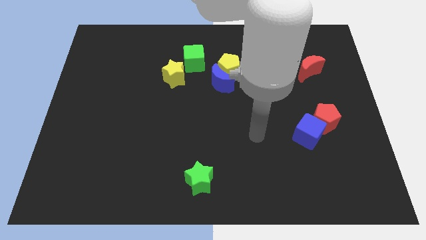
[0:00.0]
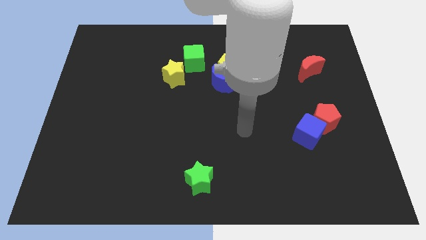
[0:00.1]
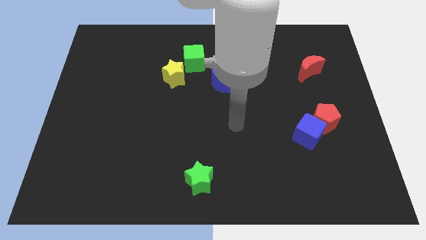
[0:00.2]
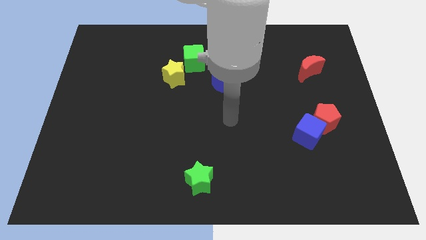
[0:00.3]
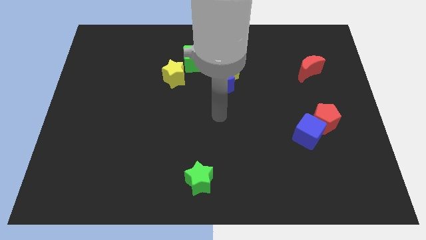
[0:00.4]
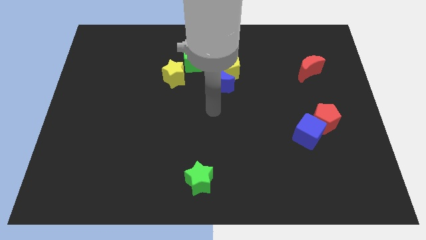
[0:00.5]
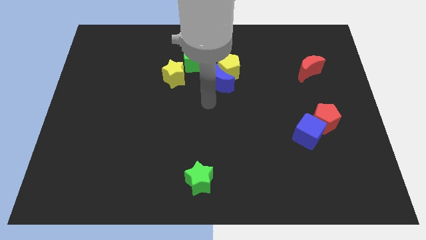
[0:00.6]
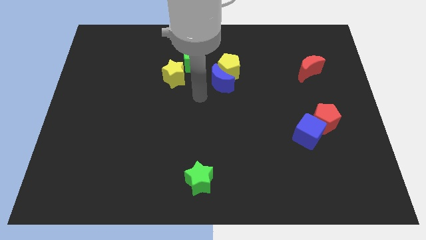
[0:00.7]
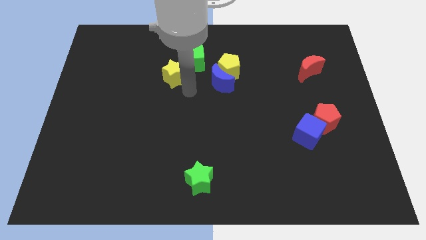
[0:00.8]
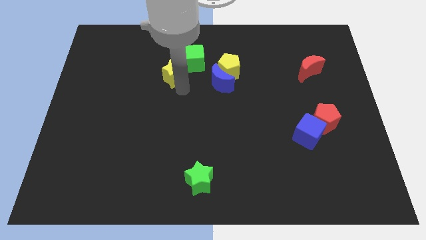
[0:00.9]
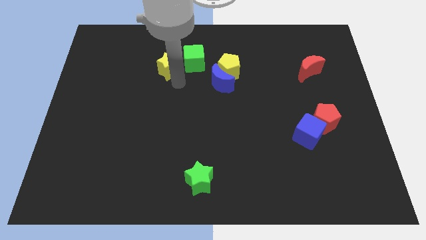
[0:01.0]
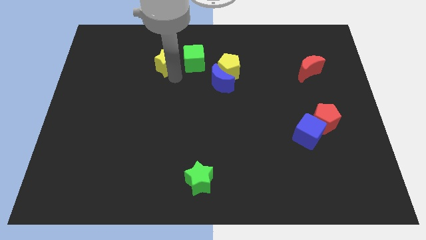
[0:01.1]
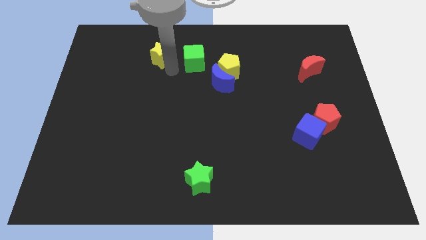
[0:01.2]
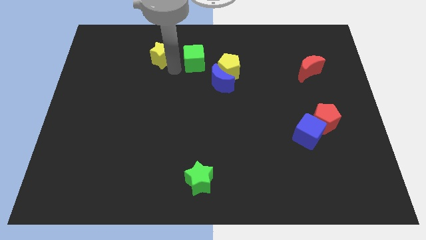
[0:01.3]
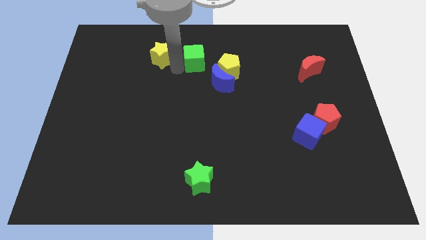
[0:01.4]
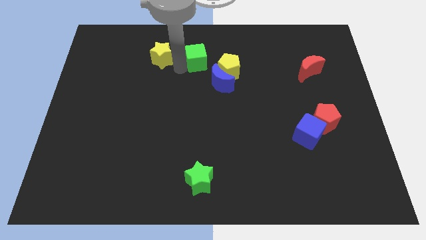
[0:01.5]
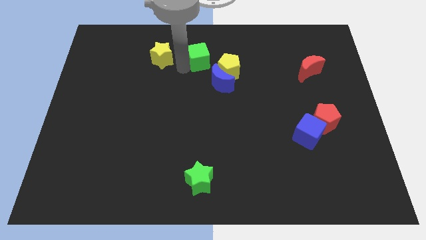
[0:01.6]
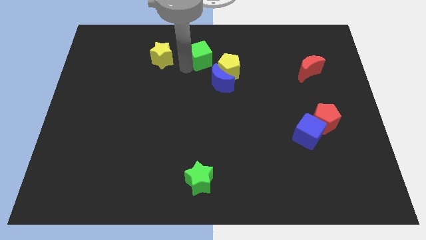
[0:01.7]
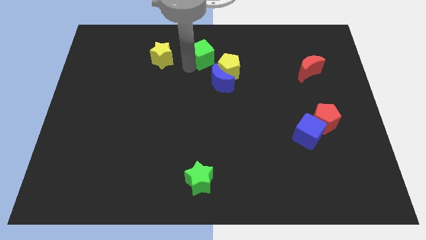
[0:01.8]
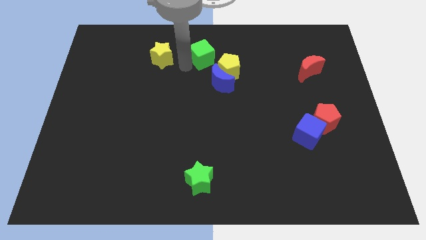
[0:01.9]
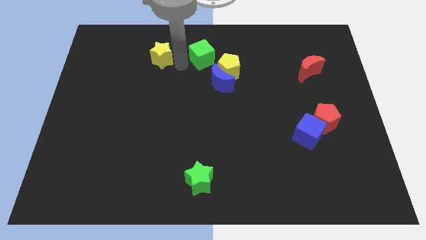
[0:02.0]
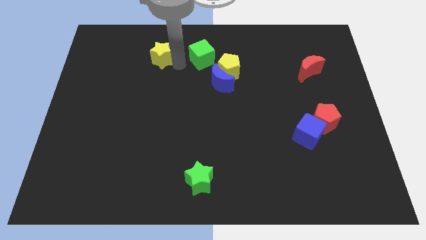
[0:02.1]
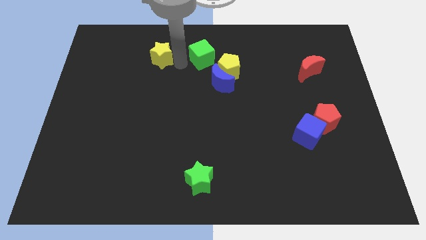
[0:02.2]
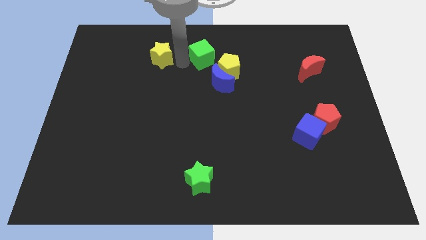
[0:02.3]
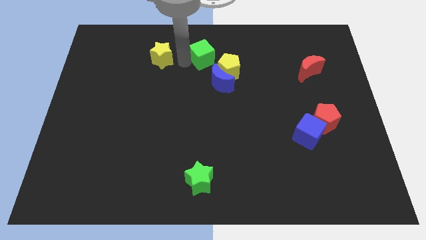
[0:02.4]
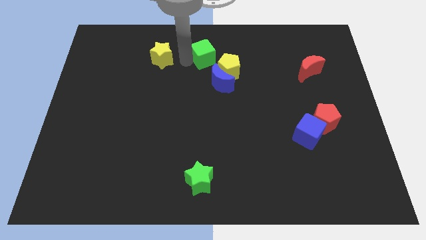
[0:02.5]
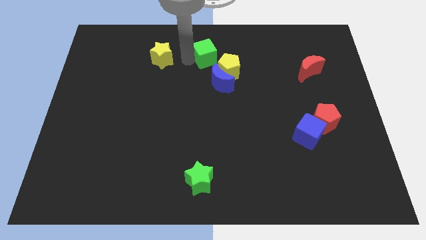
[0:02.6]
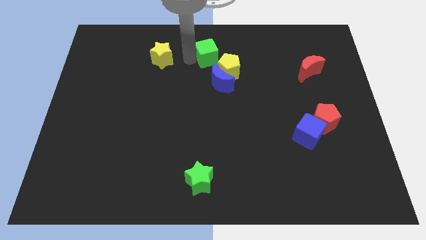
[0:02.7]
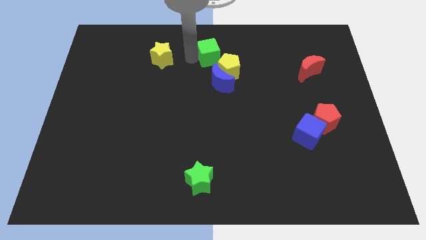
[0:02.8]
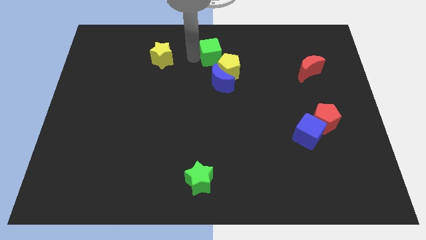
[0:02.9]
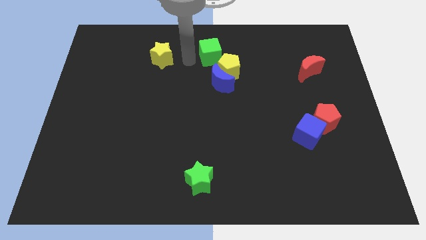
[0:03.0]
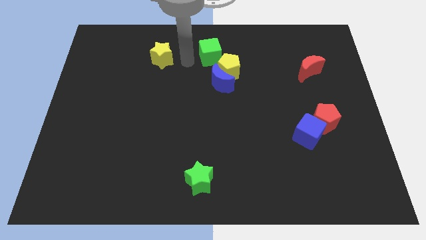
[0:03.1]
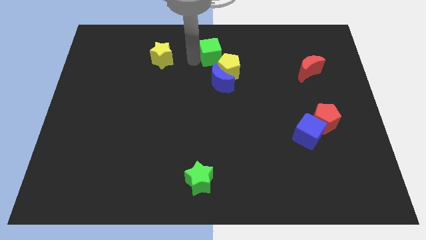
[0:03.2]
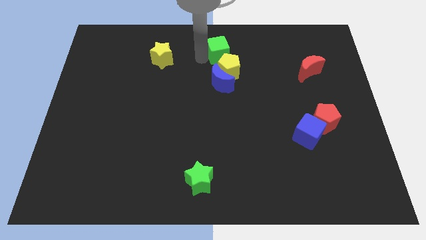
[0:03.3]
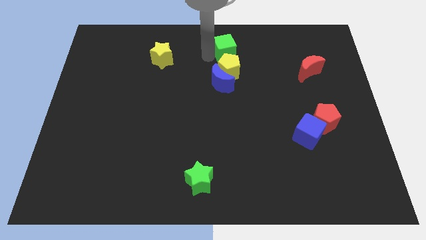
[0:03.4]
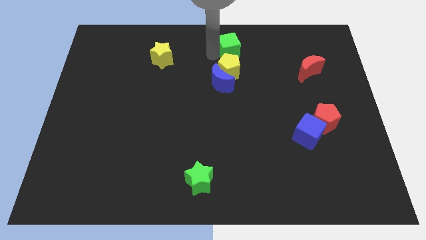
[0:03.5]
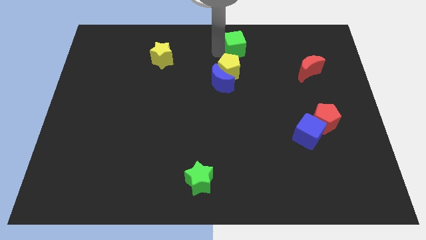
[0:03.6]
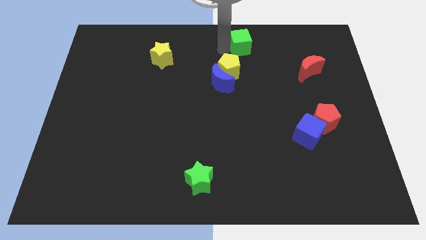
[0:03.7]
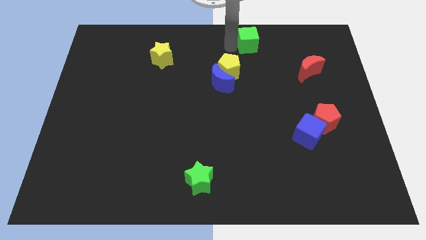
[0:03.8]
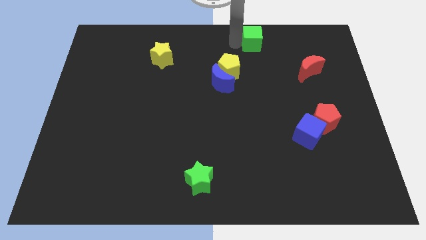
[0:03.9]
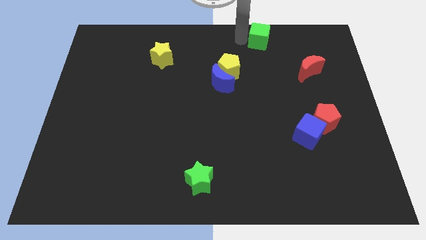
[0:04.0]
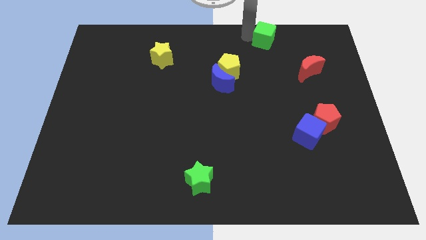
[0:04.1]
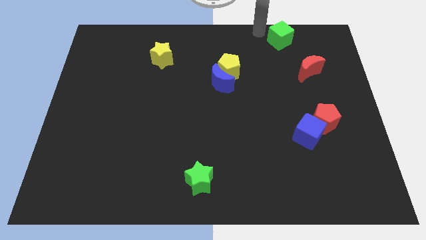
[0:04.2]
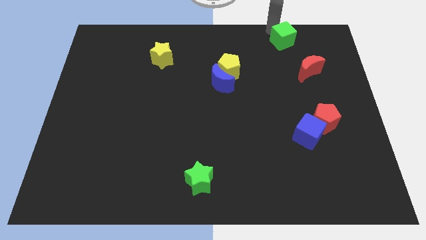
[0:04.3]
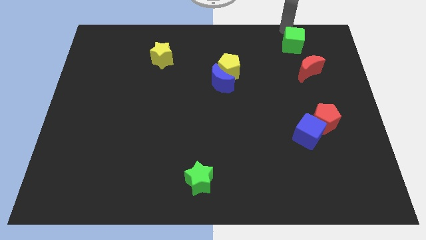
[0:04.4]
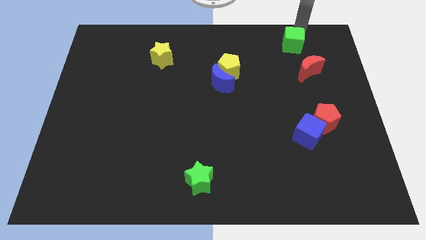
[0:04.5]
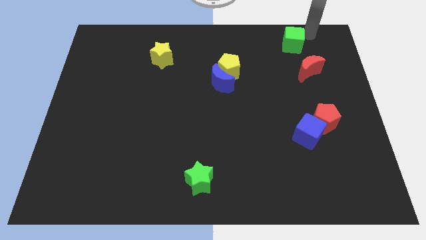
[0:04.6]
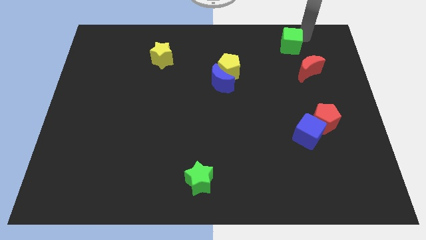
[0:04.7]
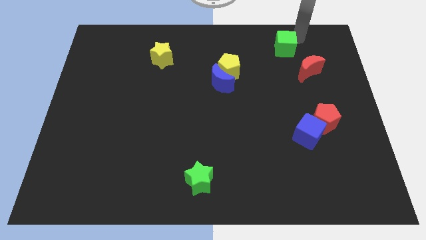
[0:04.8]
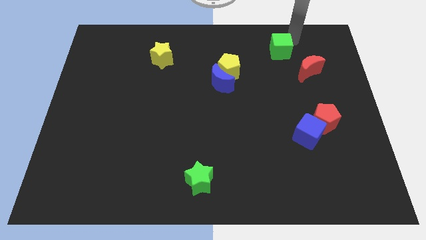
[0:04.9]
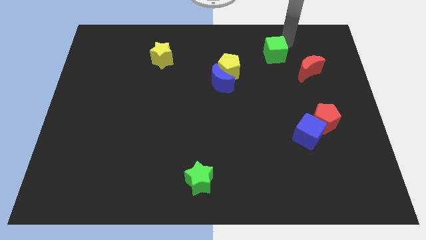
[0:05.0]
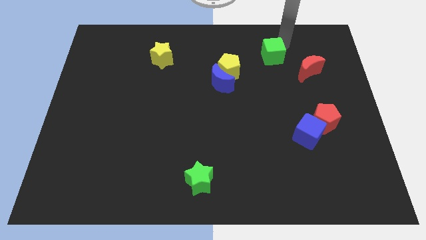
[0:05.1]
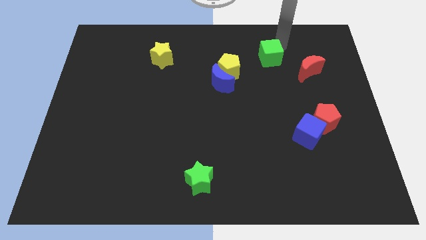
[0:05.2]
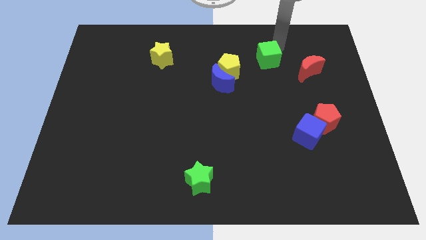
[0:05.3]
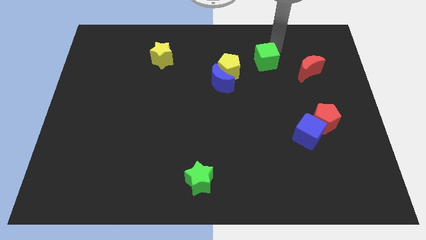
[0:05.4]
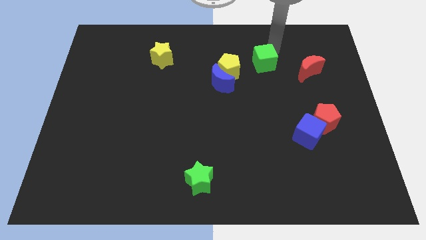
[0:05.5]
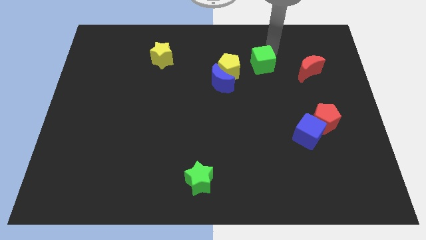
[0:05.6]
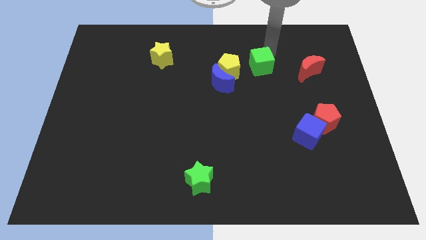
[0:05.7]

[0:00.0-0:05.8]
slide the green cube to the top right of the blue moon

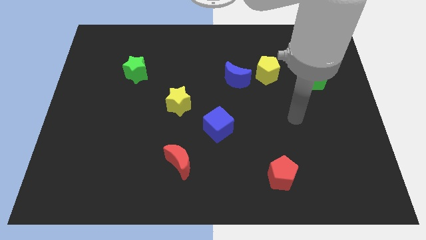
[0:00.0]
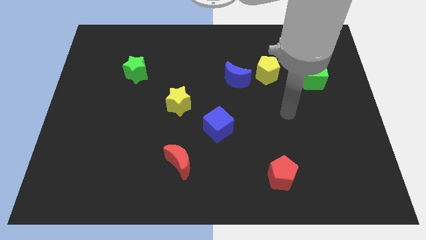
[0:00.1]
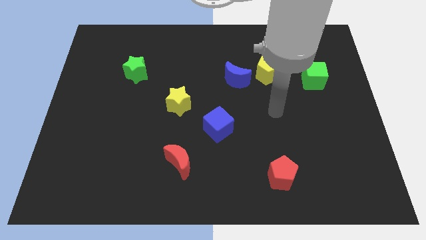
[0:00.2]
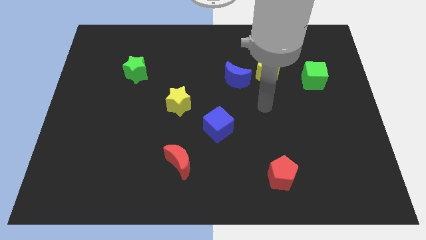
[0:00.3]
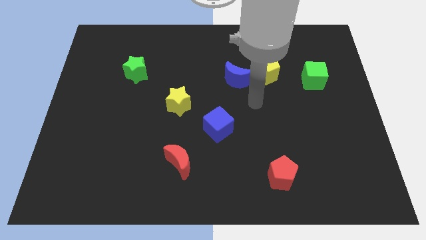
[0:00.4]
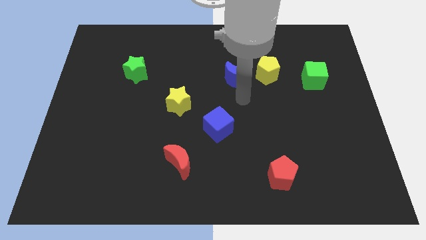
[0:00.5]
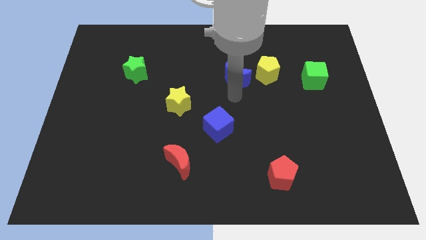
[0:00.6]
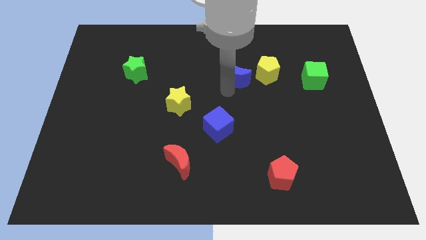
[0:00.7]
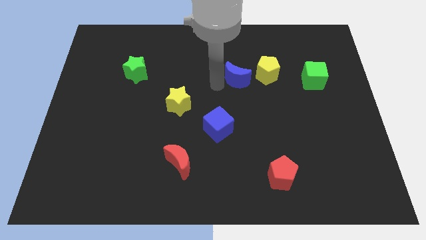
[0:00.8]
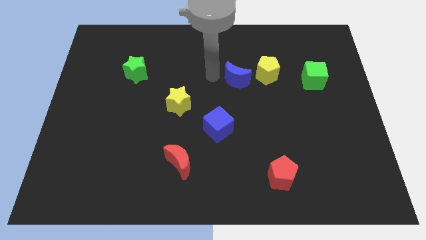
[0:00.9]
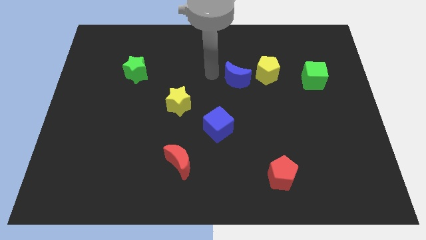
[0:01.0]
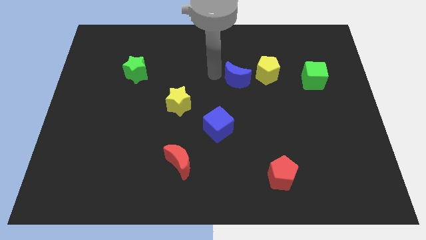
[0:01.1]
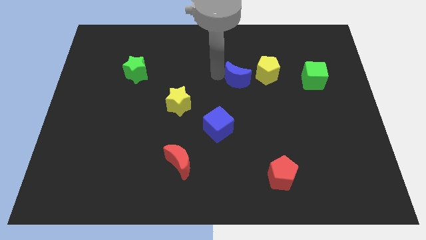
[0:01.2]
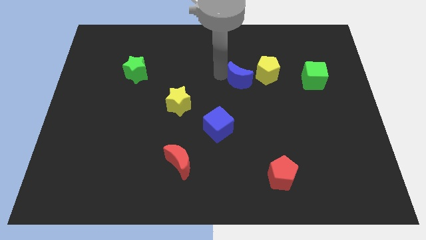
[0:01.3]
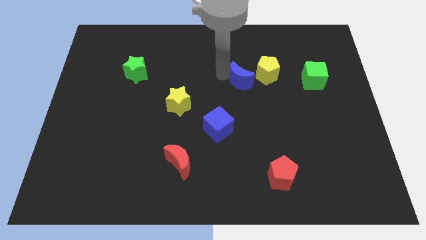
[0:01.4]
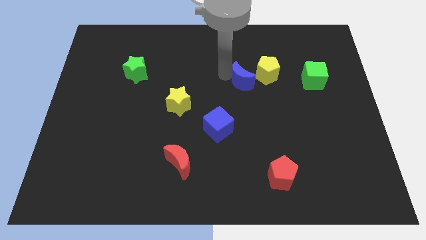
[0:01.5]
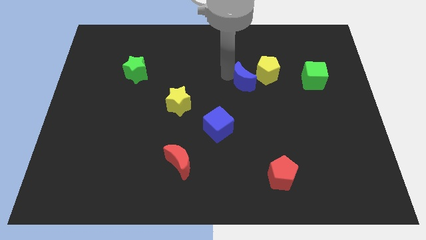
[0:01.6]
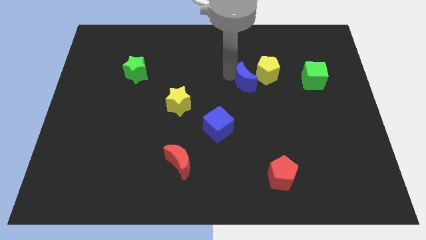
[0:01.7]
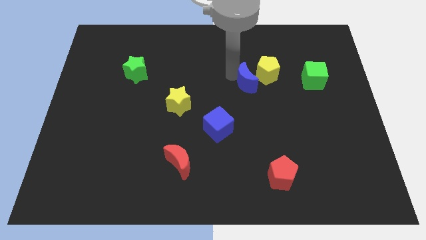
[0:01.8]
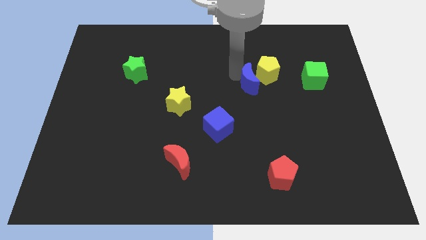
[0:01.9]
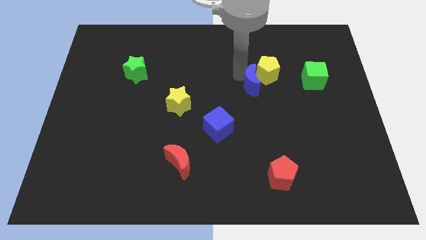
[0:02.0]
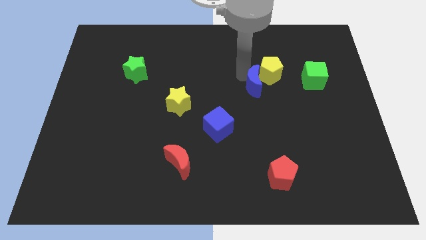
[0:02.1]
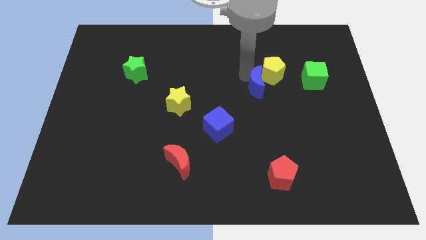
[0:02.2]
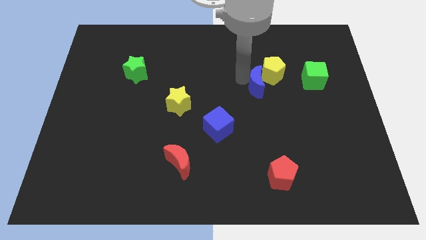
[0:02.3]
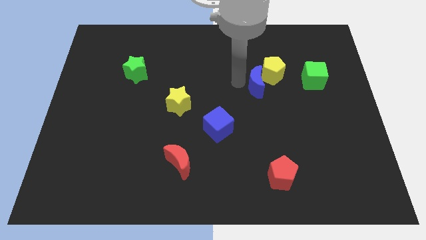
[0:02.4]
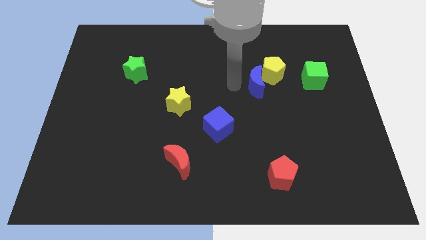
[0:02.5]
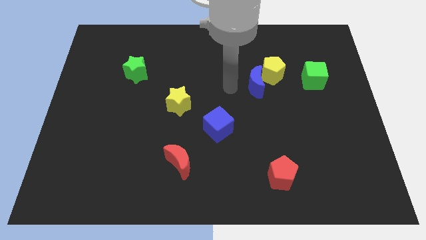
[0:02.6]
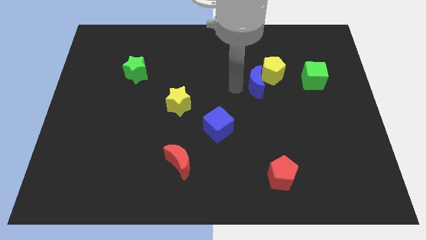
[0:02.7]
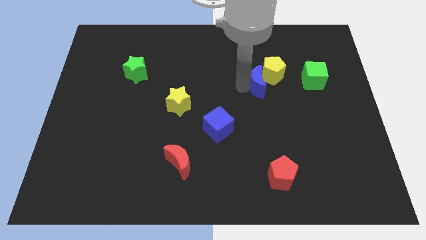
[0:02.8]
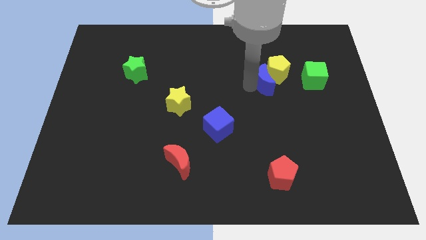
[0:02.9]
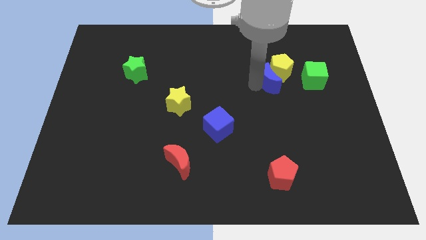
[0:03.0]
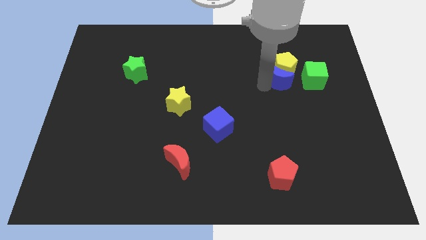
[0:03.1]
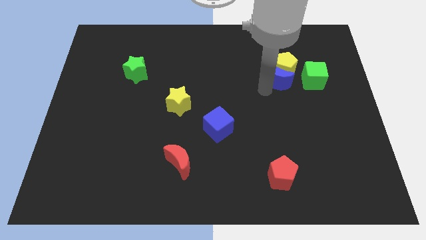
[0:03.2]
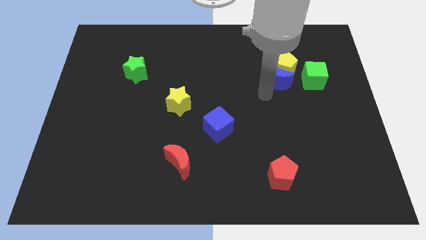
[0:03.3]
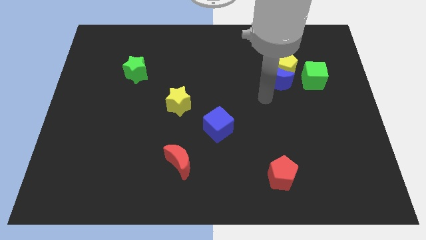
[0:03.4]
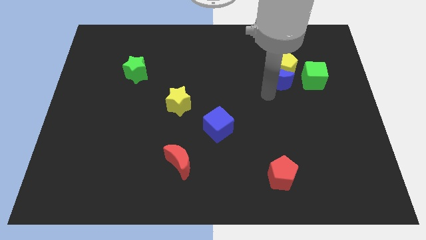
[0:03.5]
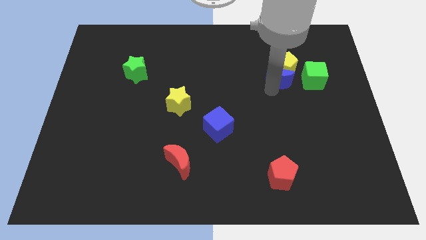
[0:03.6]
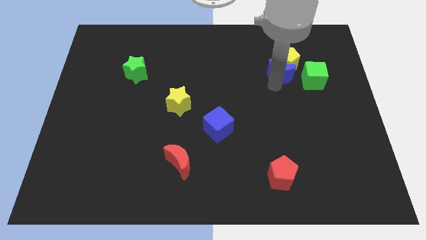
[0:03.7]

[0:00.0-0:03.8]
move the blue moon to the top left of the green cube
